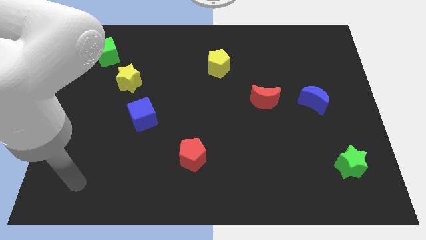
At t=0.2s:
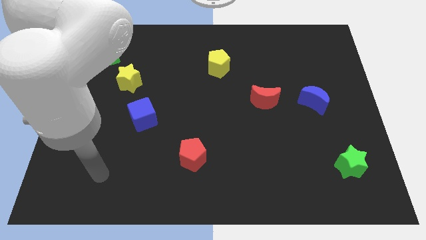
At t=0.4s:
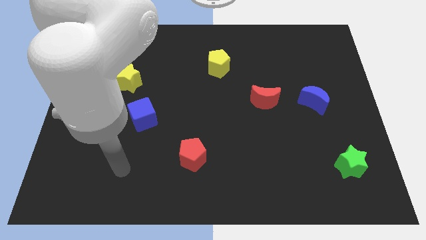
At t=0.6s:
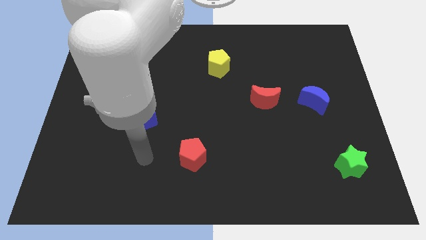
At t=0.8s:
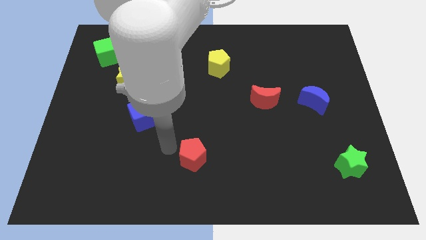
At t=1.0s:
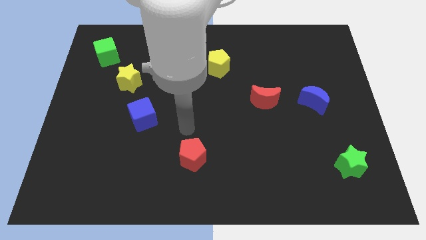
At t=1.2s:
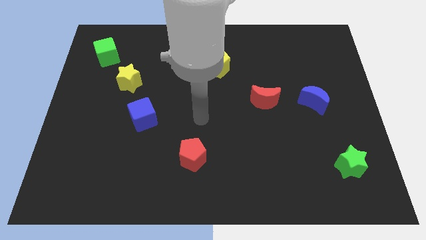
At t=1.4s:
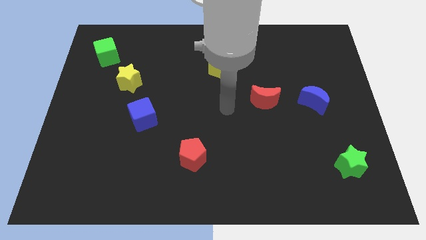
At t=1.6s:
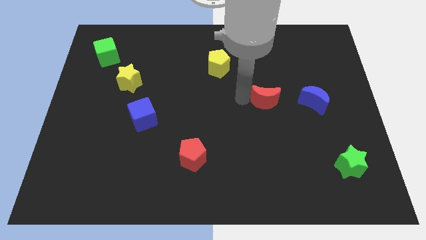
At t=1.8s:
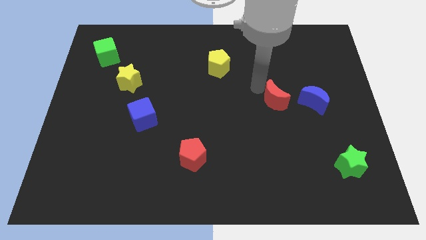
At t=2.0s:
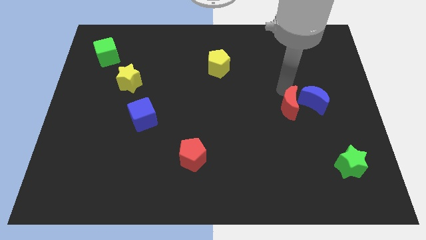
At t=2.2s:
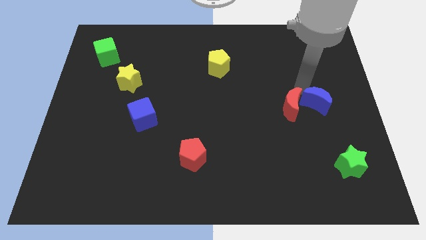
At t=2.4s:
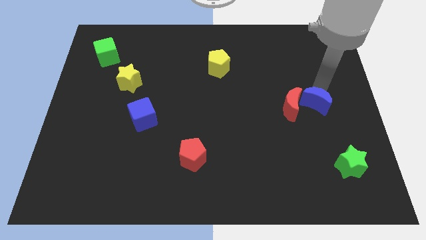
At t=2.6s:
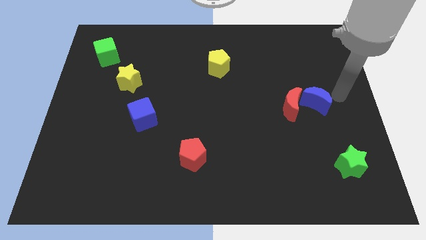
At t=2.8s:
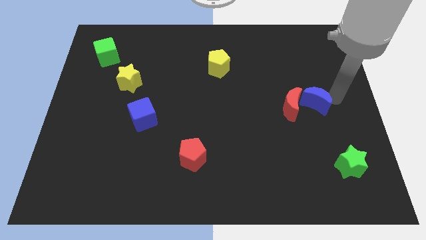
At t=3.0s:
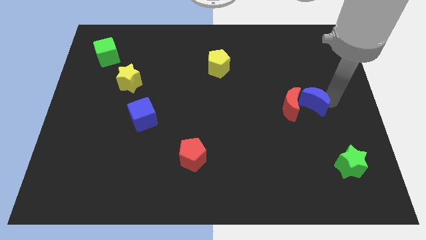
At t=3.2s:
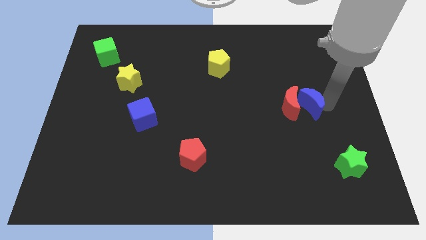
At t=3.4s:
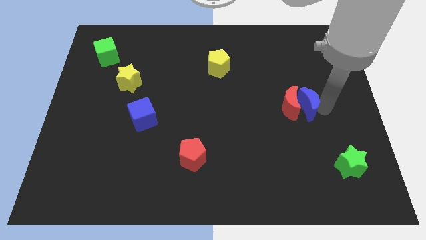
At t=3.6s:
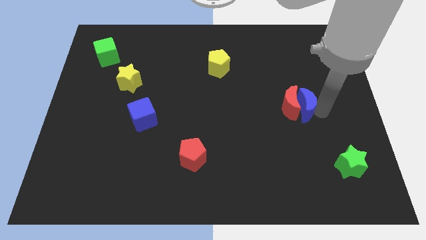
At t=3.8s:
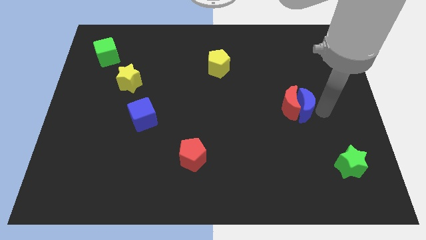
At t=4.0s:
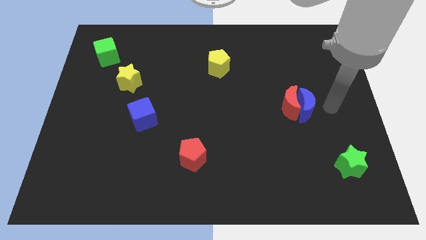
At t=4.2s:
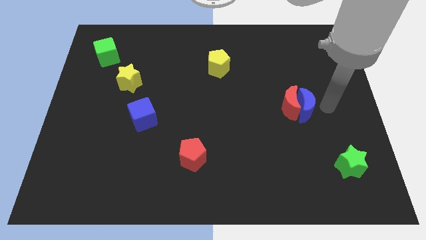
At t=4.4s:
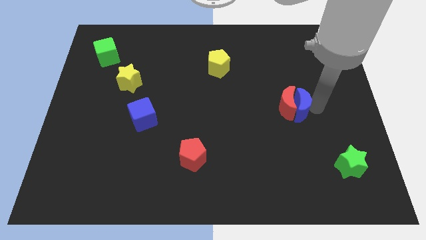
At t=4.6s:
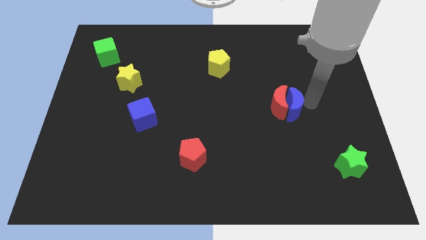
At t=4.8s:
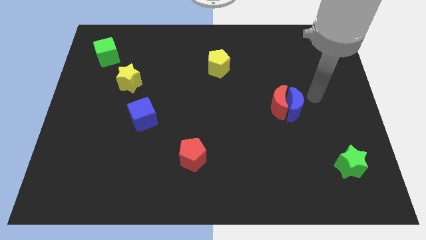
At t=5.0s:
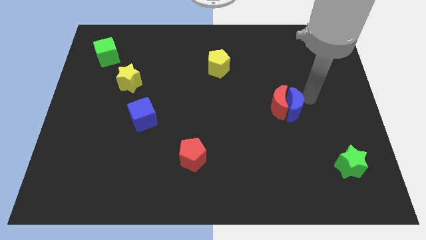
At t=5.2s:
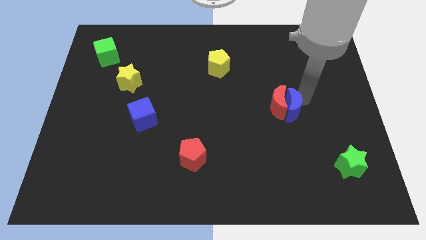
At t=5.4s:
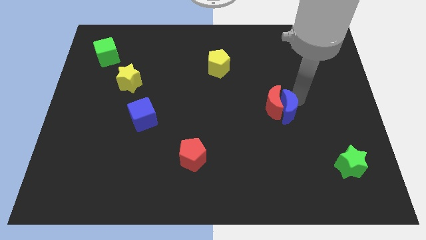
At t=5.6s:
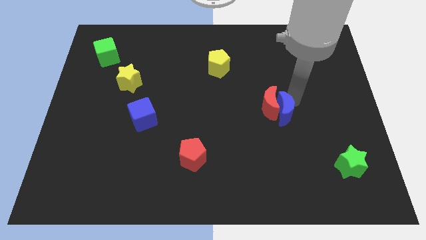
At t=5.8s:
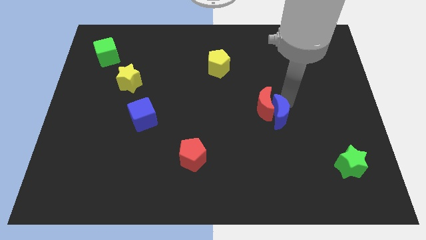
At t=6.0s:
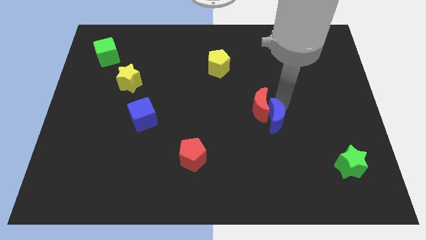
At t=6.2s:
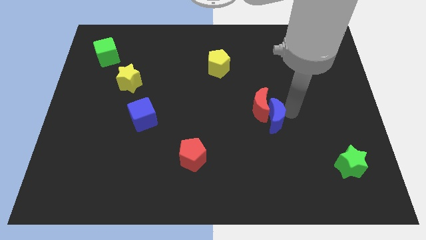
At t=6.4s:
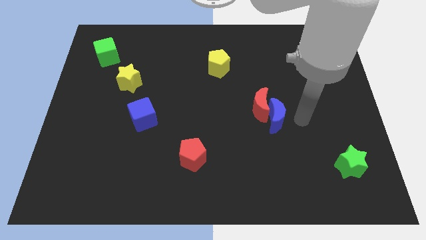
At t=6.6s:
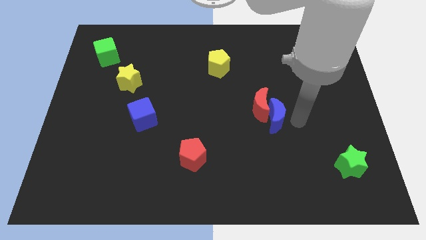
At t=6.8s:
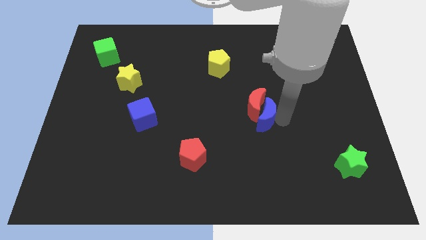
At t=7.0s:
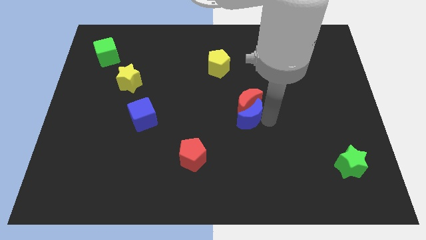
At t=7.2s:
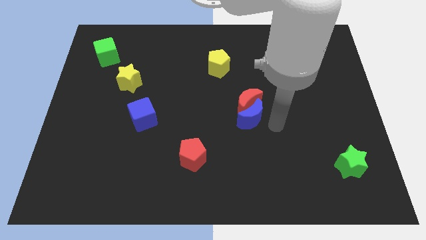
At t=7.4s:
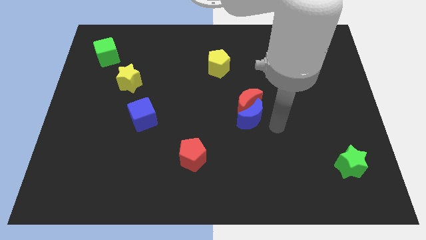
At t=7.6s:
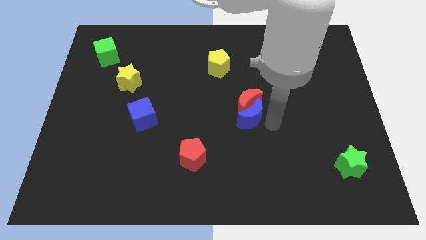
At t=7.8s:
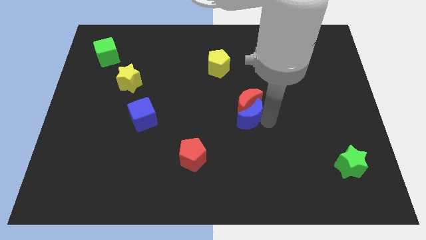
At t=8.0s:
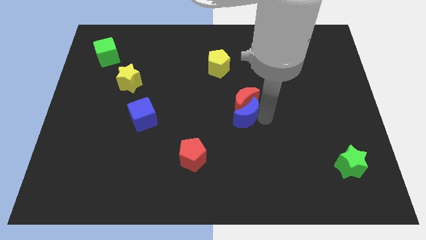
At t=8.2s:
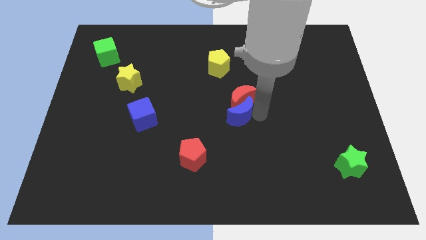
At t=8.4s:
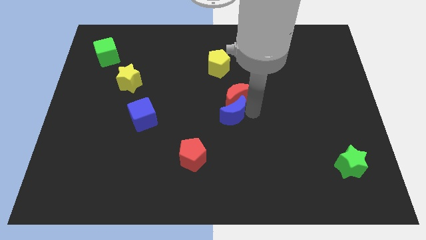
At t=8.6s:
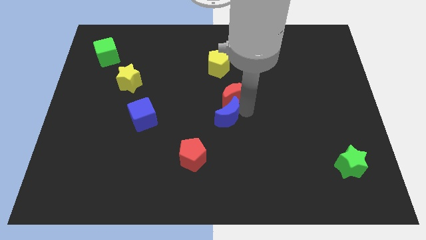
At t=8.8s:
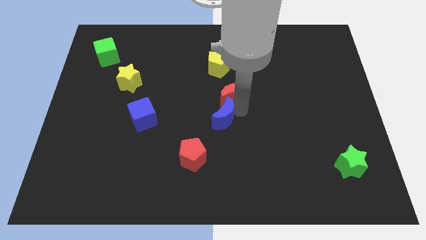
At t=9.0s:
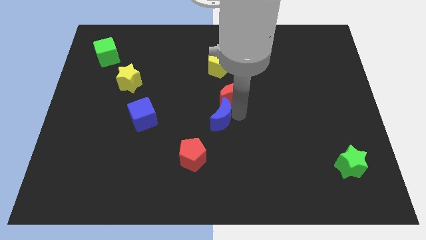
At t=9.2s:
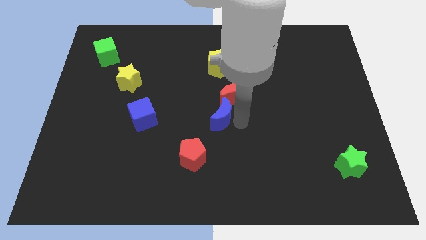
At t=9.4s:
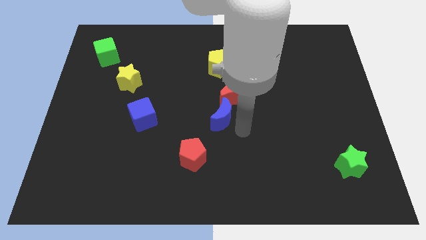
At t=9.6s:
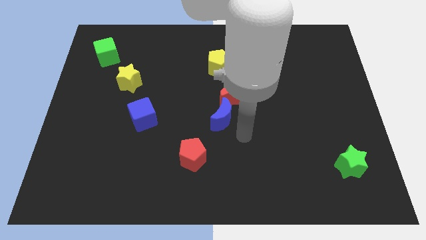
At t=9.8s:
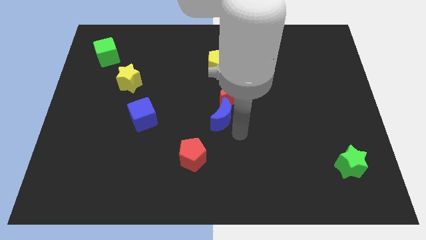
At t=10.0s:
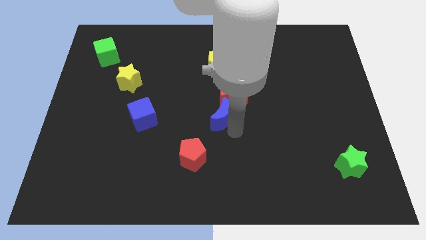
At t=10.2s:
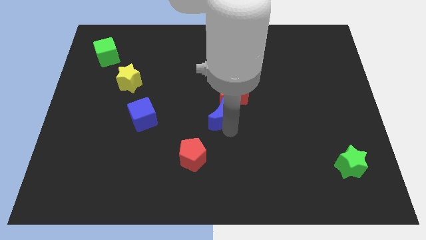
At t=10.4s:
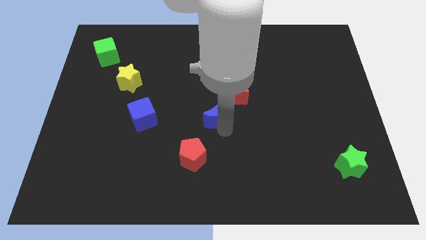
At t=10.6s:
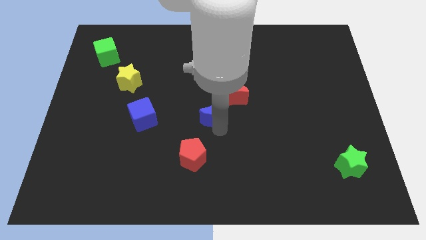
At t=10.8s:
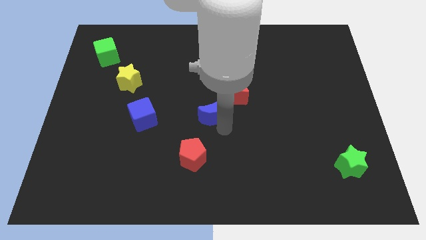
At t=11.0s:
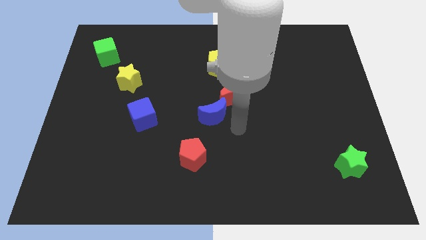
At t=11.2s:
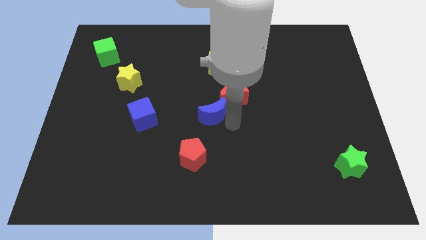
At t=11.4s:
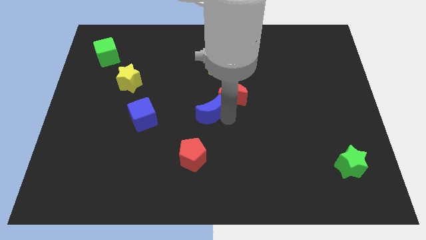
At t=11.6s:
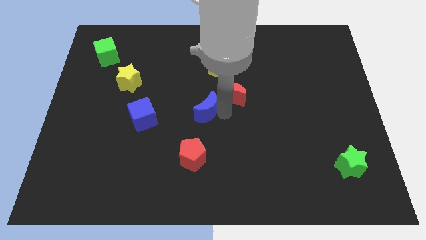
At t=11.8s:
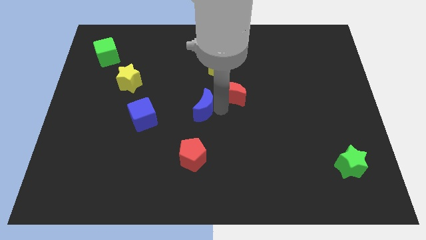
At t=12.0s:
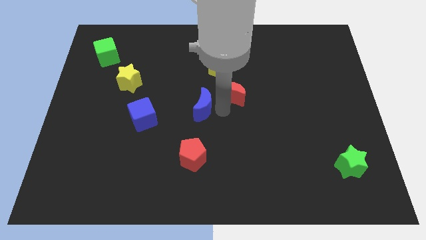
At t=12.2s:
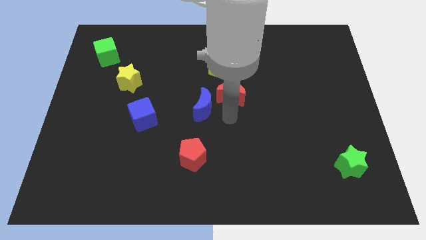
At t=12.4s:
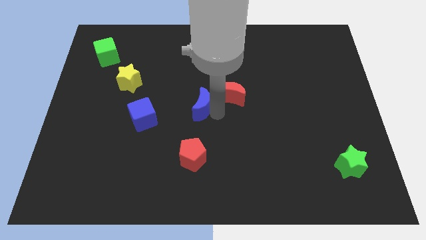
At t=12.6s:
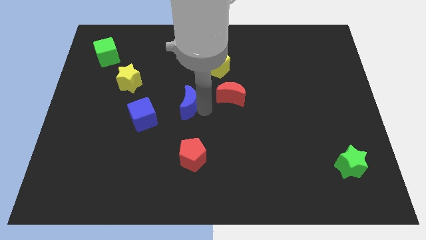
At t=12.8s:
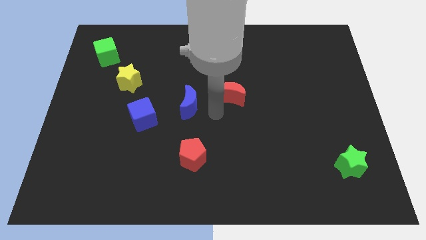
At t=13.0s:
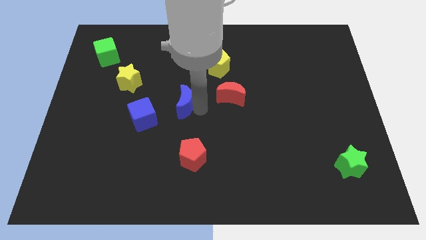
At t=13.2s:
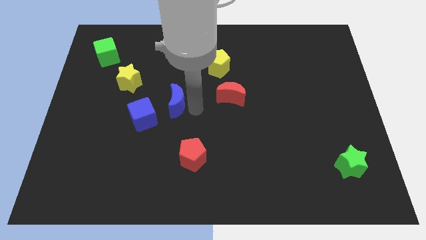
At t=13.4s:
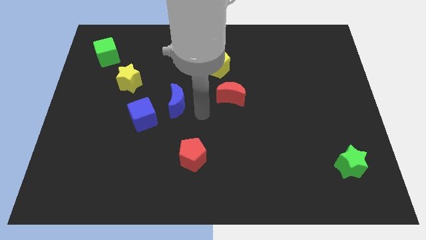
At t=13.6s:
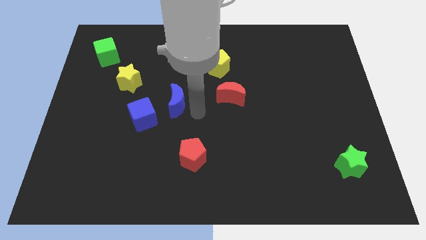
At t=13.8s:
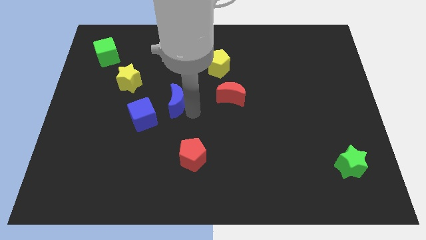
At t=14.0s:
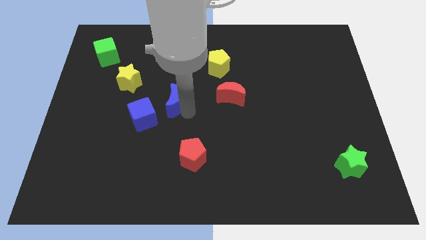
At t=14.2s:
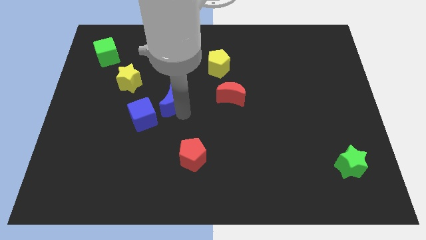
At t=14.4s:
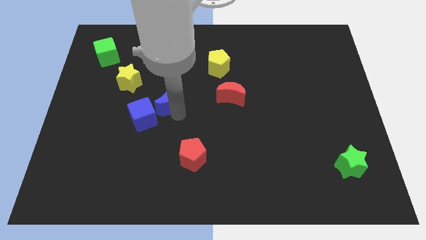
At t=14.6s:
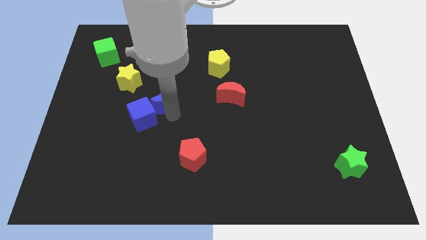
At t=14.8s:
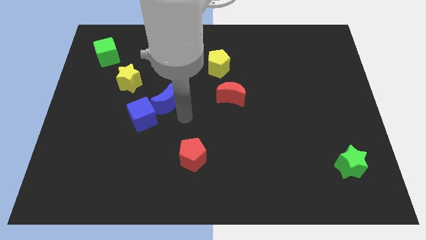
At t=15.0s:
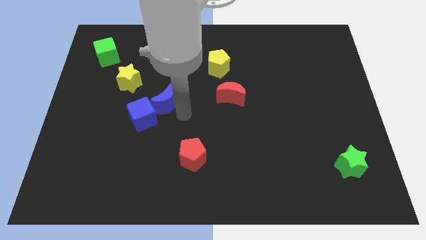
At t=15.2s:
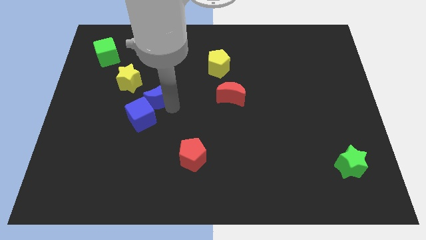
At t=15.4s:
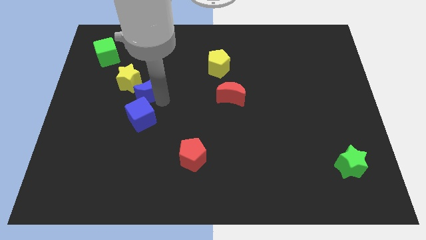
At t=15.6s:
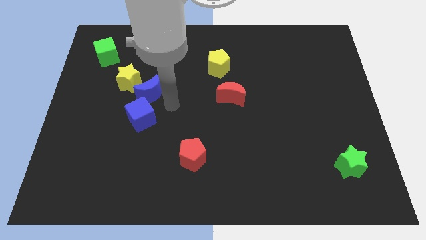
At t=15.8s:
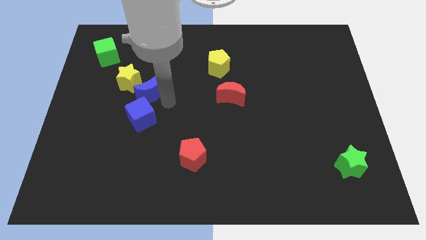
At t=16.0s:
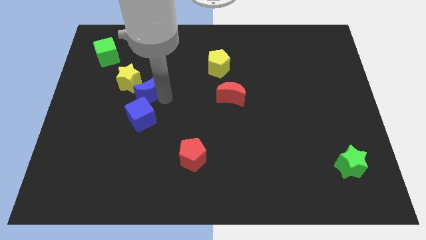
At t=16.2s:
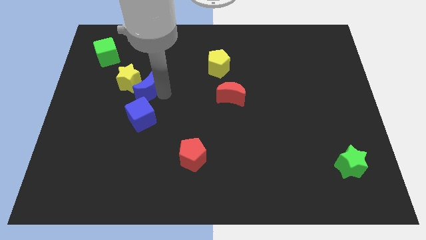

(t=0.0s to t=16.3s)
put the blue moon close to the yellow star
